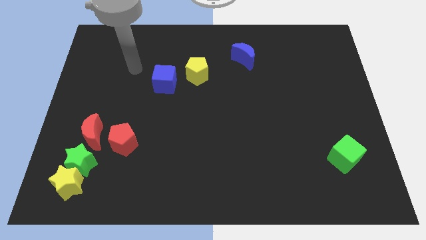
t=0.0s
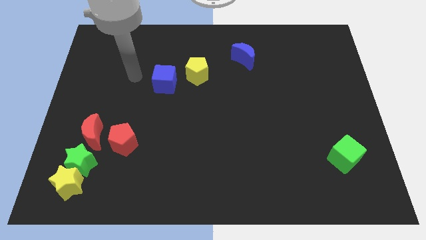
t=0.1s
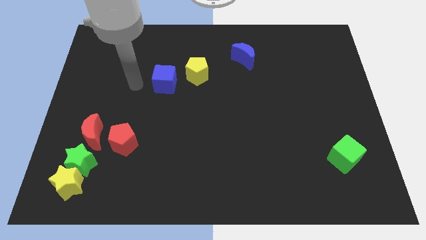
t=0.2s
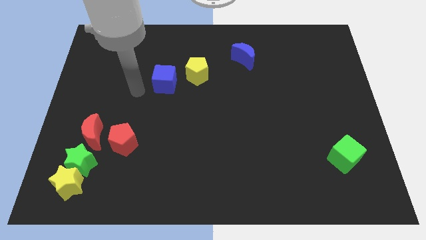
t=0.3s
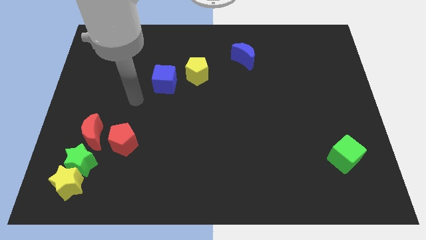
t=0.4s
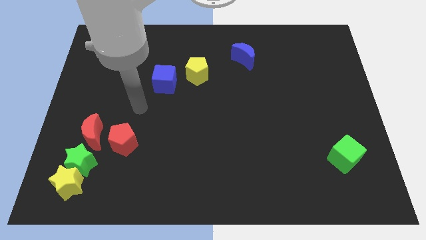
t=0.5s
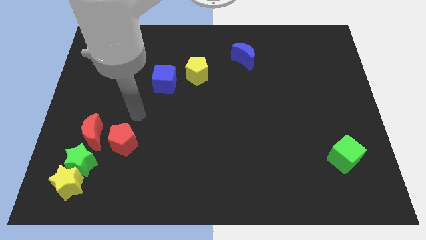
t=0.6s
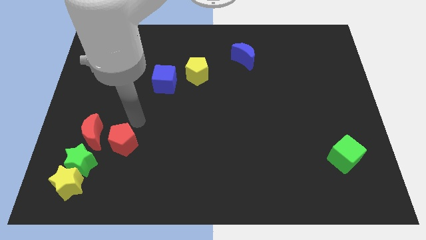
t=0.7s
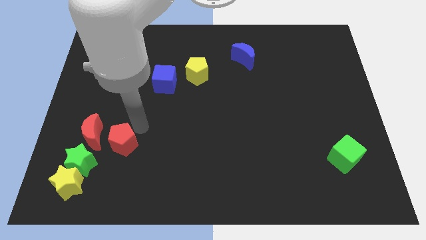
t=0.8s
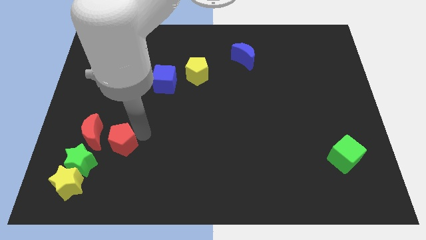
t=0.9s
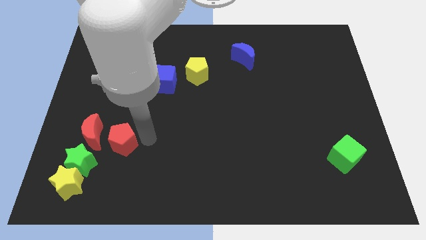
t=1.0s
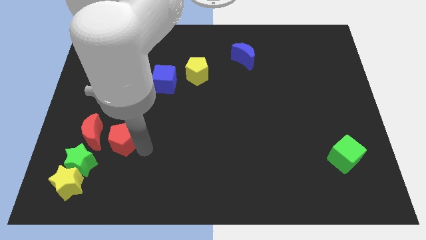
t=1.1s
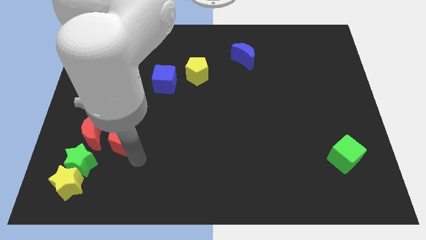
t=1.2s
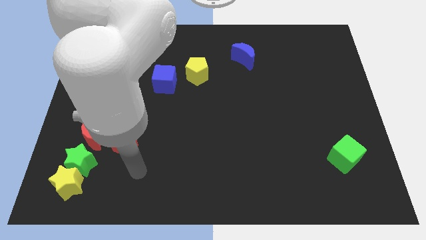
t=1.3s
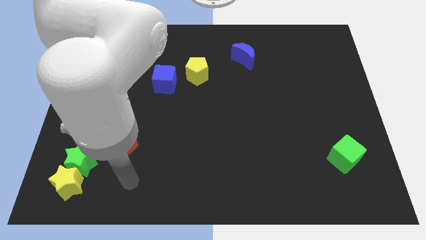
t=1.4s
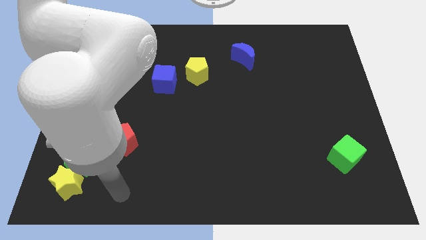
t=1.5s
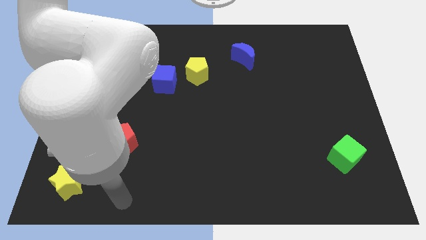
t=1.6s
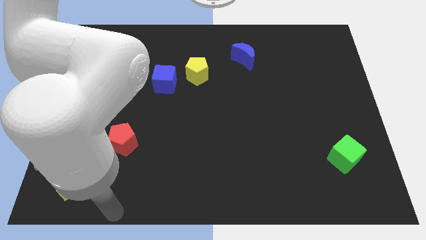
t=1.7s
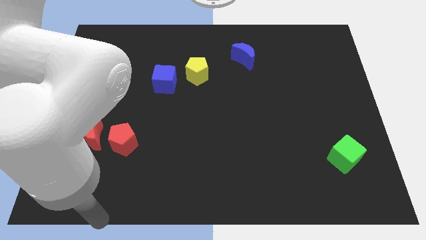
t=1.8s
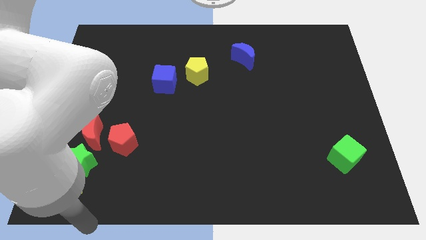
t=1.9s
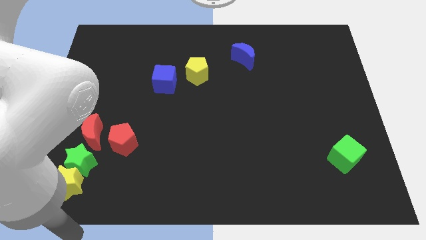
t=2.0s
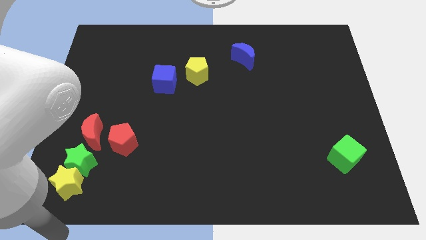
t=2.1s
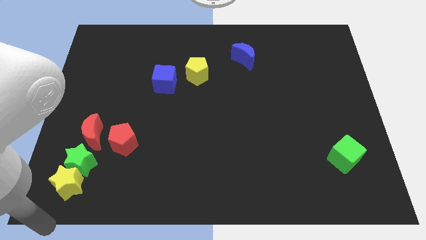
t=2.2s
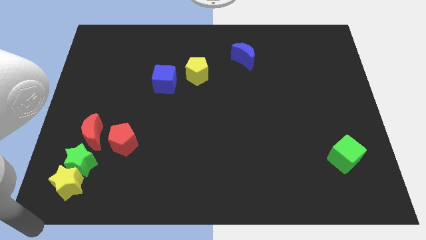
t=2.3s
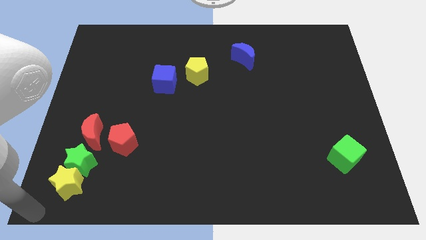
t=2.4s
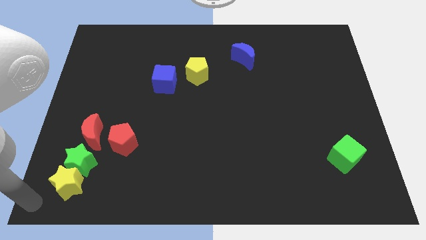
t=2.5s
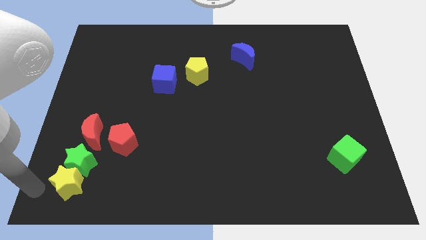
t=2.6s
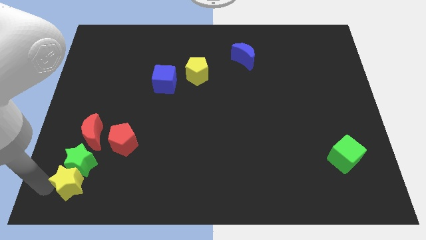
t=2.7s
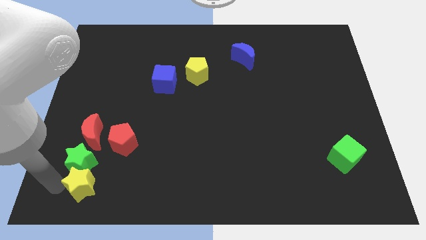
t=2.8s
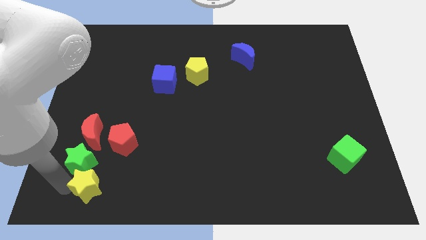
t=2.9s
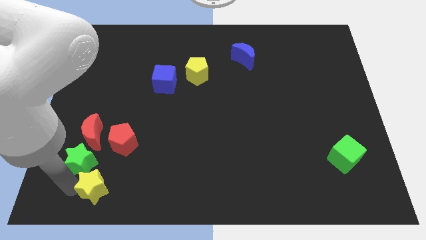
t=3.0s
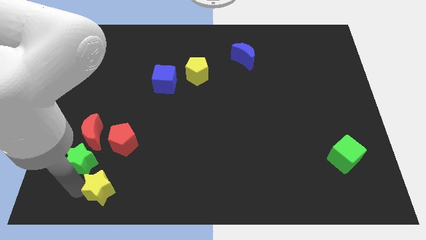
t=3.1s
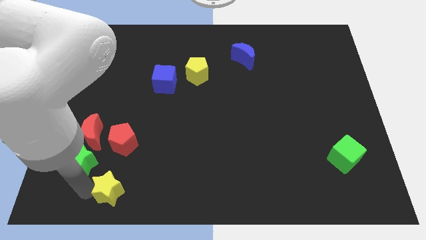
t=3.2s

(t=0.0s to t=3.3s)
slightly slide the yellow star to the right

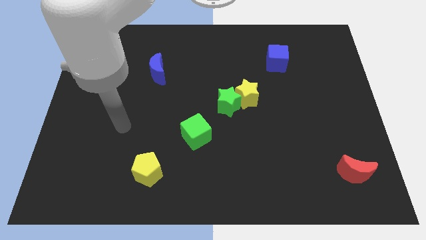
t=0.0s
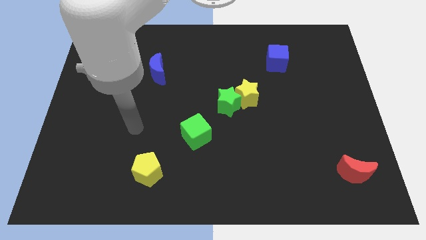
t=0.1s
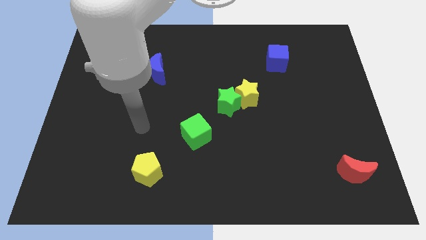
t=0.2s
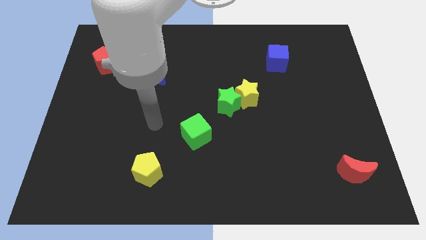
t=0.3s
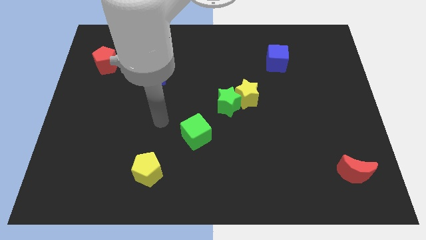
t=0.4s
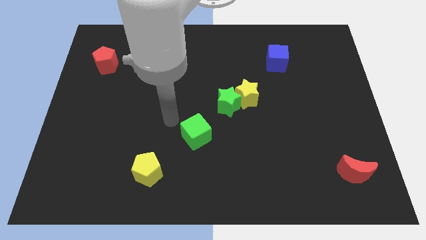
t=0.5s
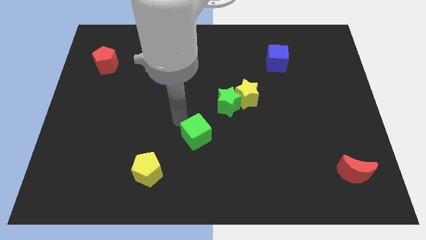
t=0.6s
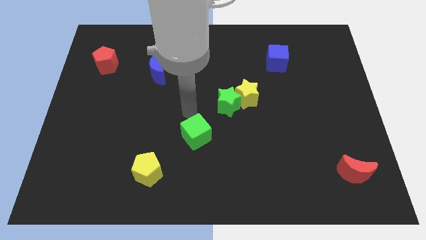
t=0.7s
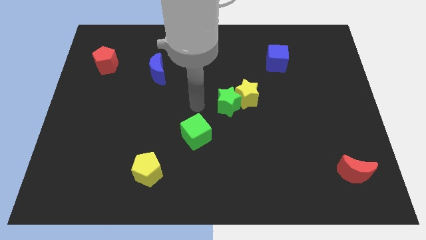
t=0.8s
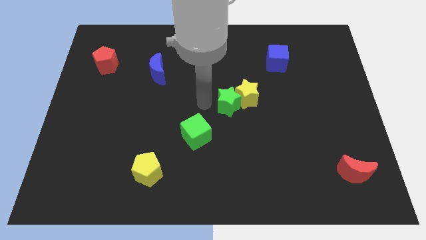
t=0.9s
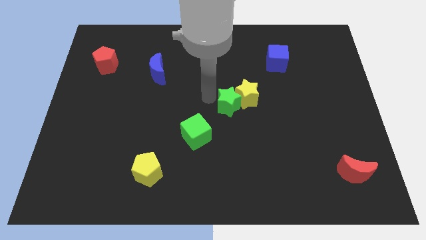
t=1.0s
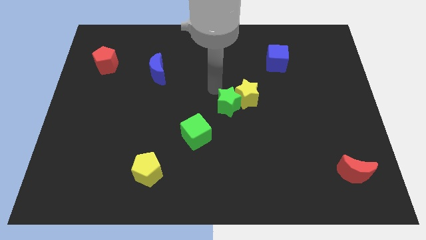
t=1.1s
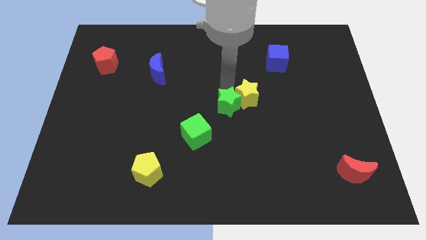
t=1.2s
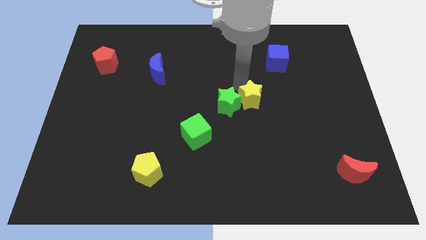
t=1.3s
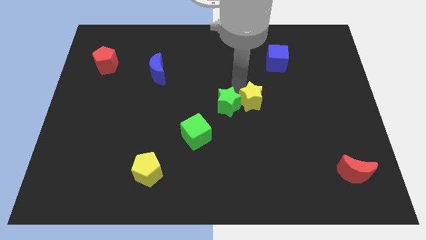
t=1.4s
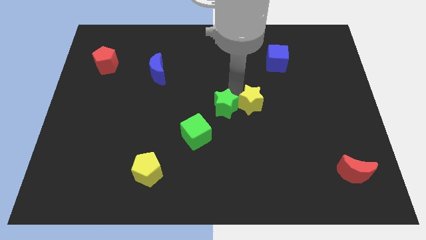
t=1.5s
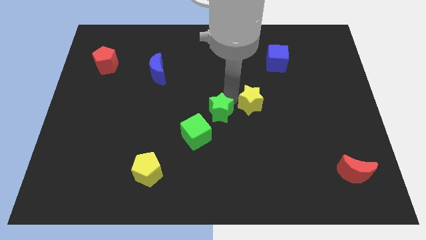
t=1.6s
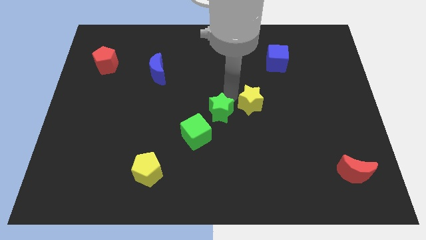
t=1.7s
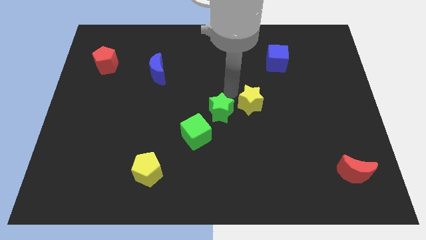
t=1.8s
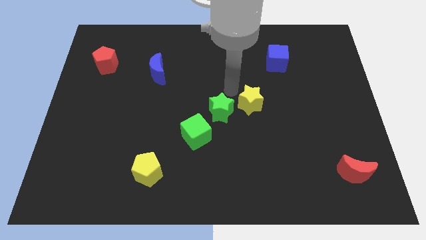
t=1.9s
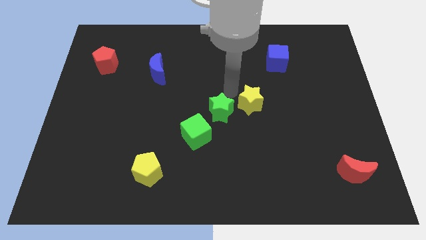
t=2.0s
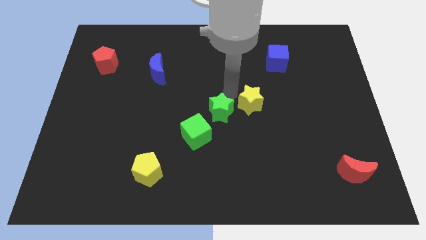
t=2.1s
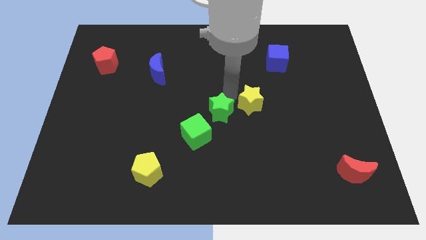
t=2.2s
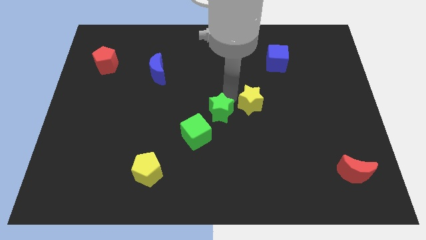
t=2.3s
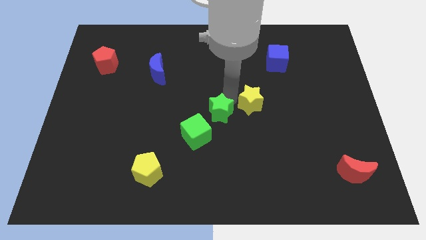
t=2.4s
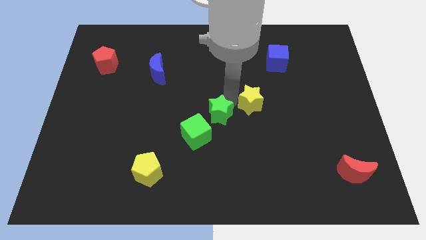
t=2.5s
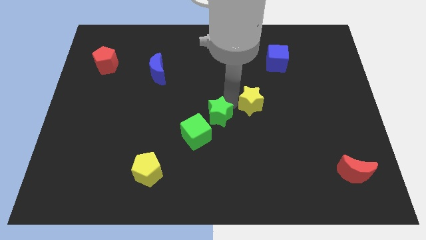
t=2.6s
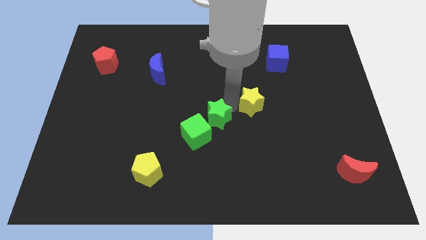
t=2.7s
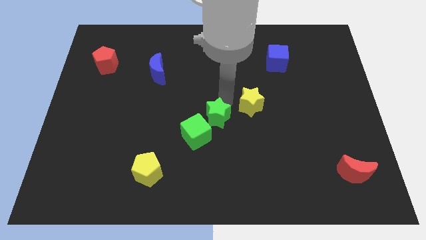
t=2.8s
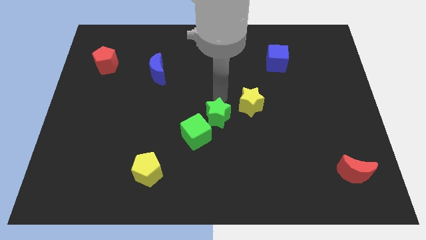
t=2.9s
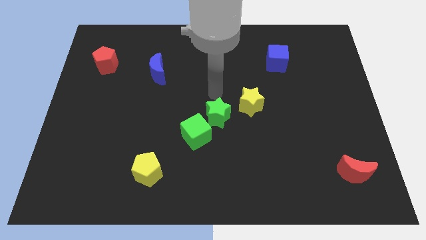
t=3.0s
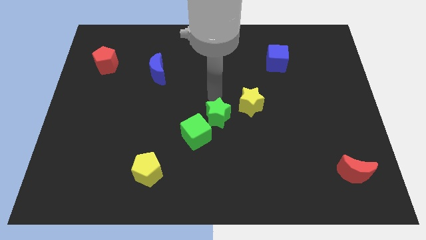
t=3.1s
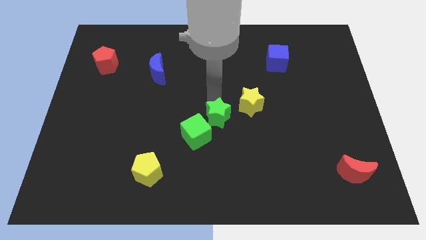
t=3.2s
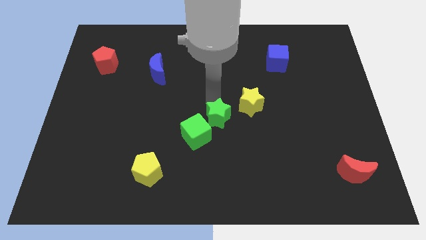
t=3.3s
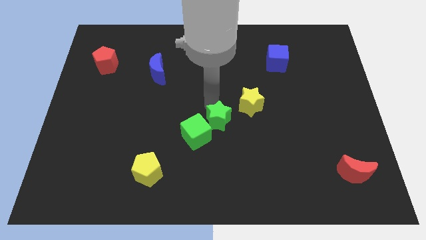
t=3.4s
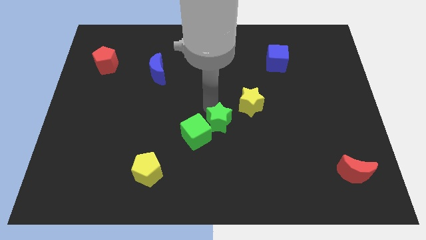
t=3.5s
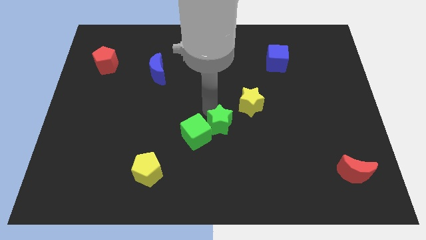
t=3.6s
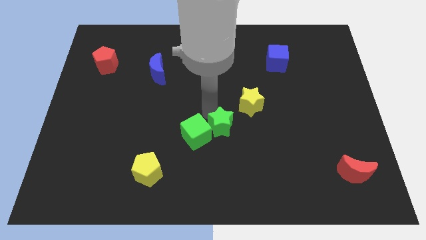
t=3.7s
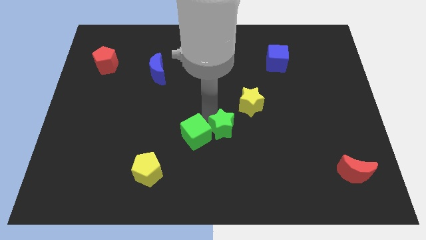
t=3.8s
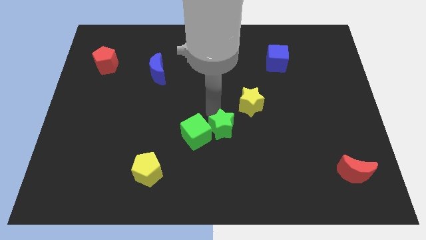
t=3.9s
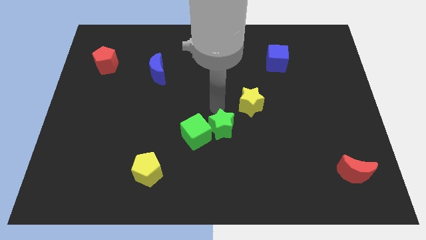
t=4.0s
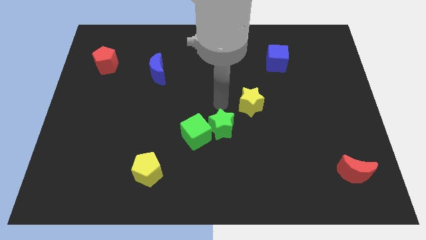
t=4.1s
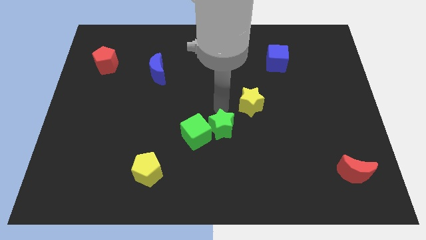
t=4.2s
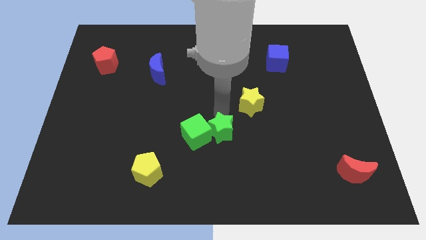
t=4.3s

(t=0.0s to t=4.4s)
slightly move the green star down

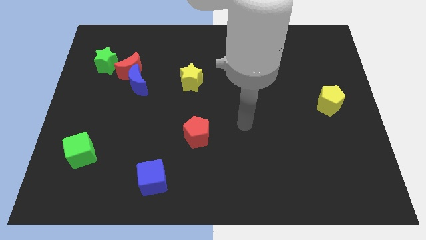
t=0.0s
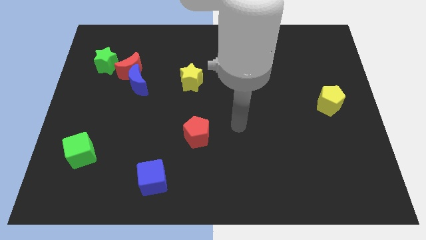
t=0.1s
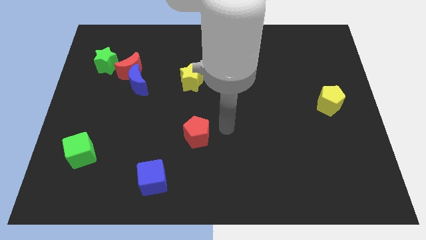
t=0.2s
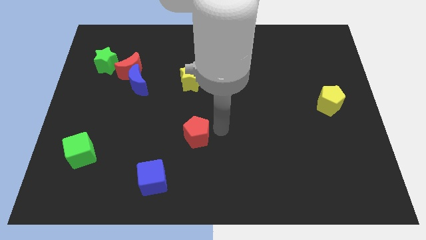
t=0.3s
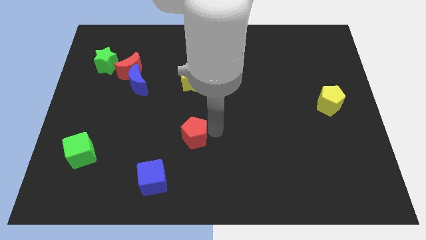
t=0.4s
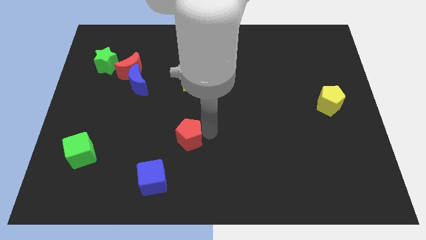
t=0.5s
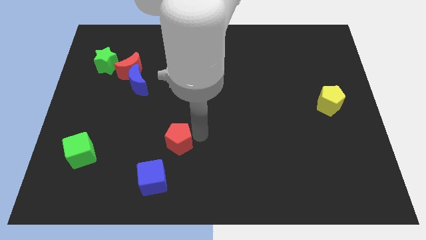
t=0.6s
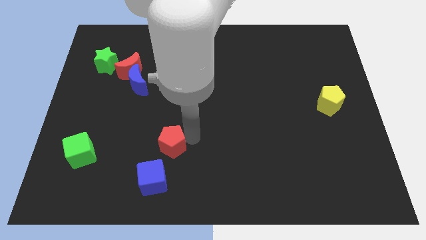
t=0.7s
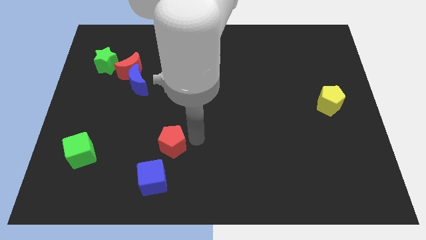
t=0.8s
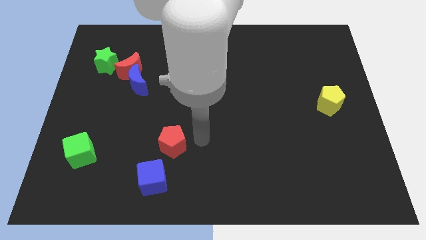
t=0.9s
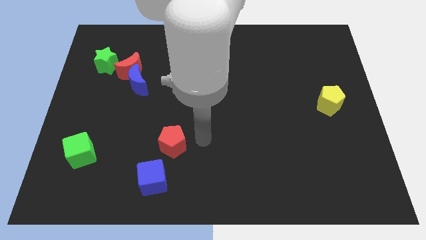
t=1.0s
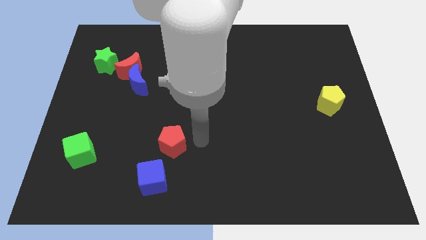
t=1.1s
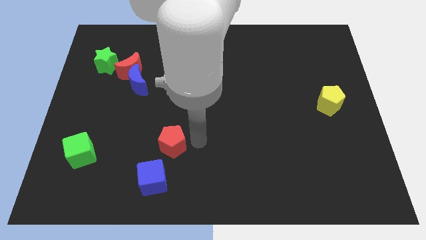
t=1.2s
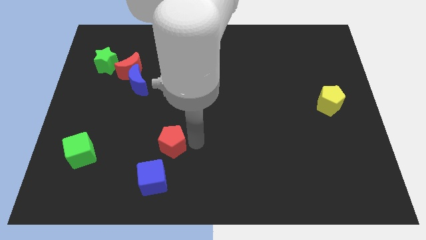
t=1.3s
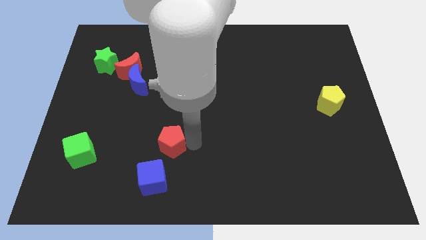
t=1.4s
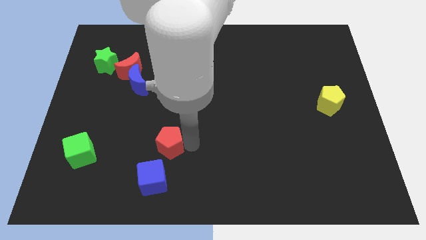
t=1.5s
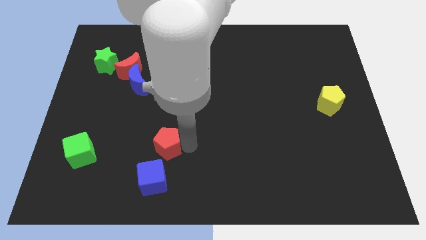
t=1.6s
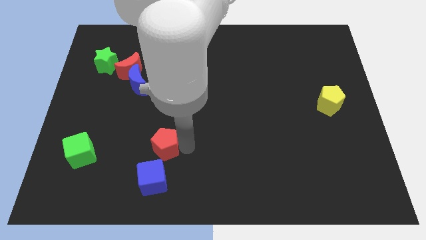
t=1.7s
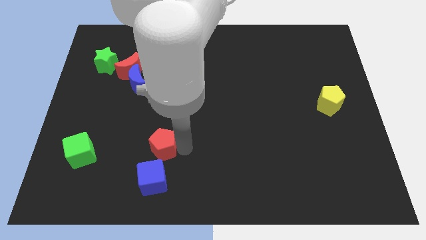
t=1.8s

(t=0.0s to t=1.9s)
slightly push the red pentagon left
